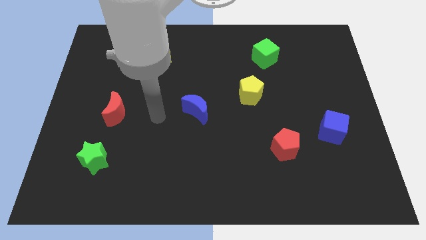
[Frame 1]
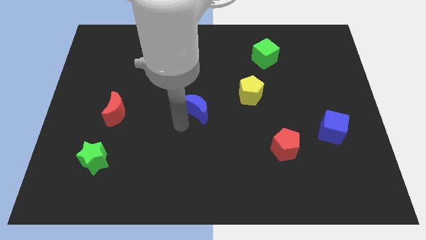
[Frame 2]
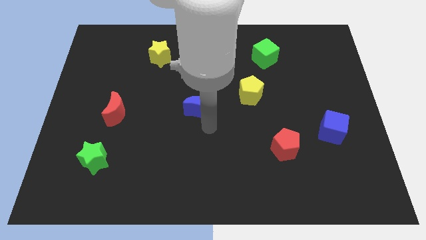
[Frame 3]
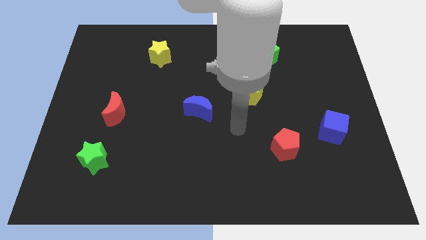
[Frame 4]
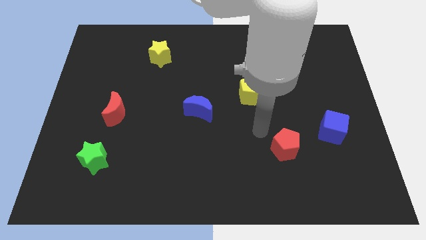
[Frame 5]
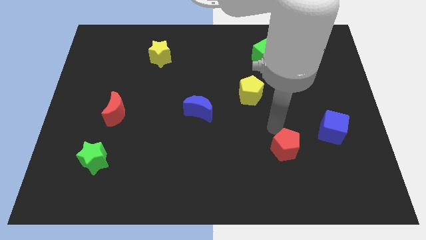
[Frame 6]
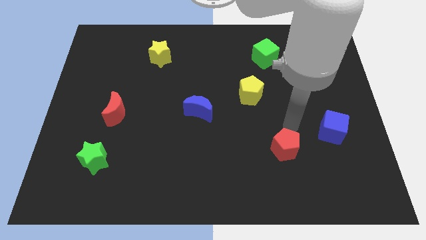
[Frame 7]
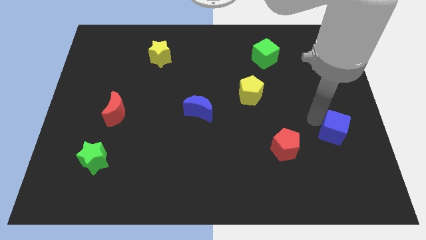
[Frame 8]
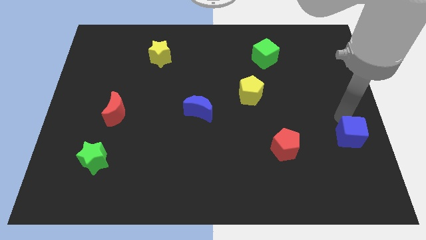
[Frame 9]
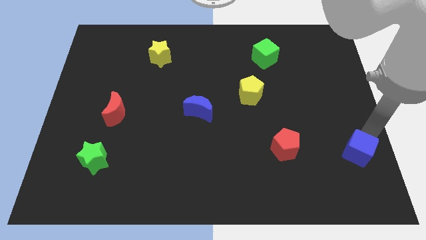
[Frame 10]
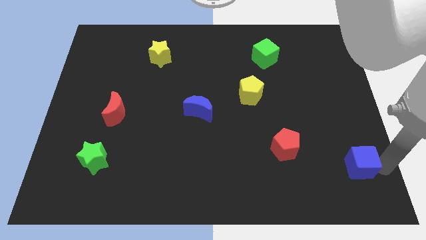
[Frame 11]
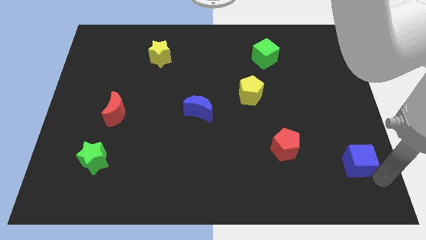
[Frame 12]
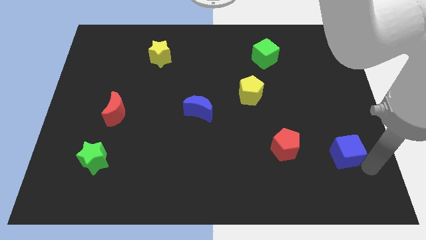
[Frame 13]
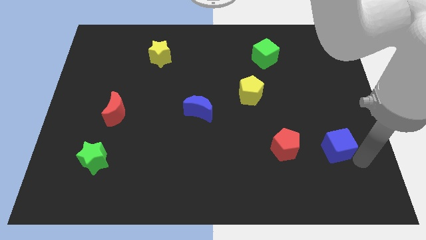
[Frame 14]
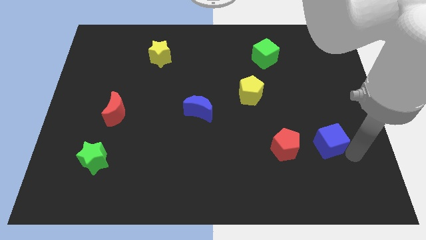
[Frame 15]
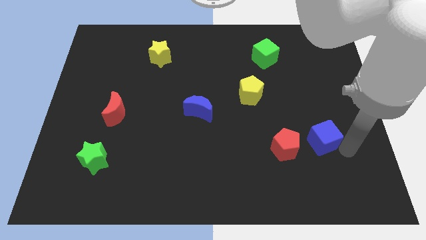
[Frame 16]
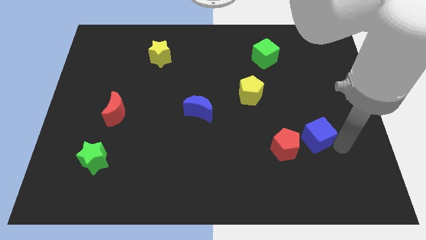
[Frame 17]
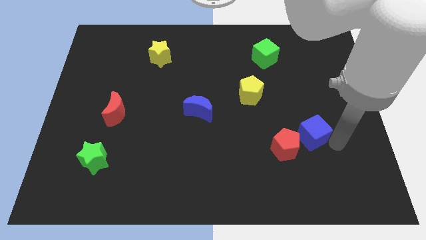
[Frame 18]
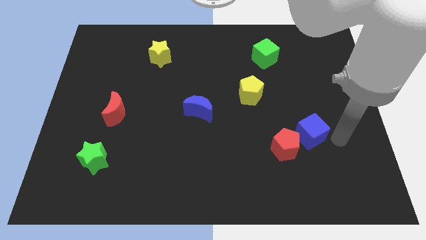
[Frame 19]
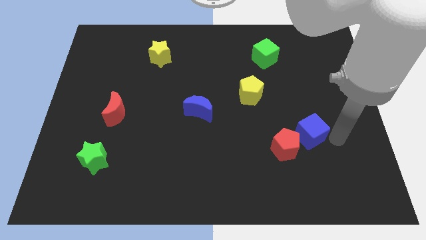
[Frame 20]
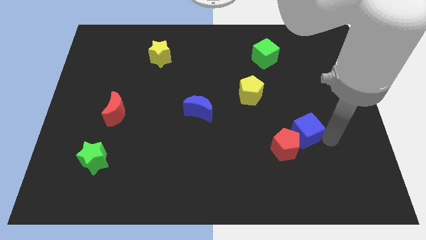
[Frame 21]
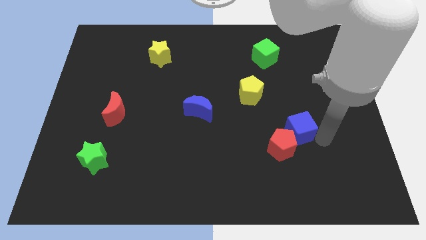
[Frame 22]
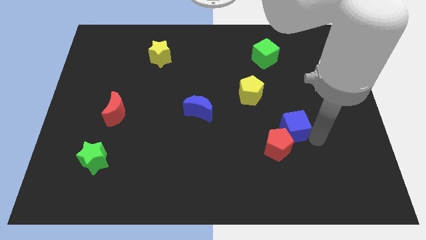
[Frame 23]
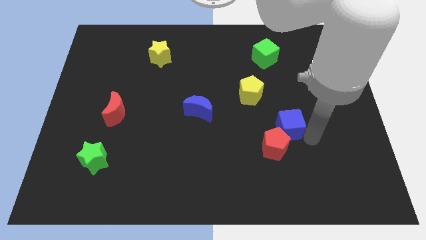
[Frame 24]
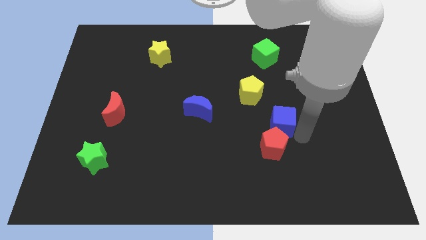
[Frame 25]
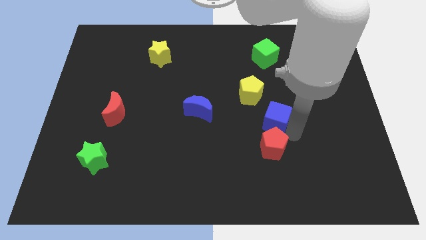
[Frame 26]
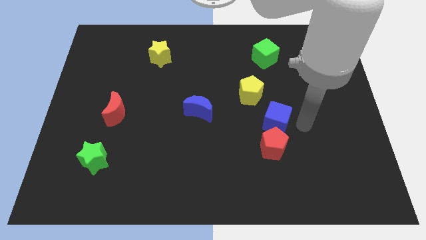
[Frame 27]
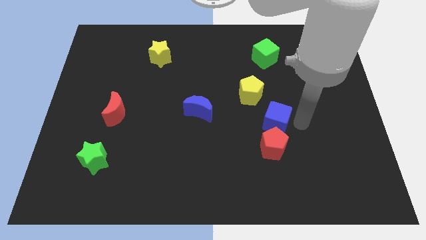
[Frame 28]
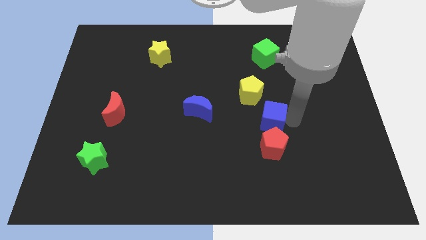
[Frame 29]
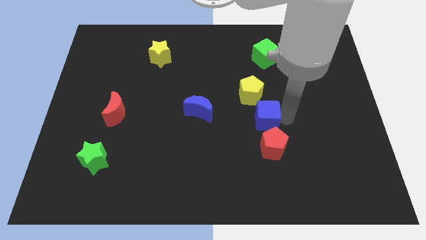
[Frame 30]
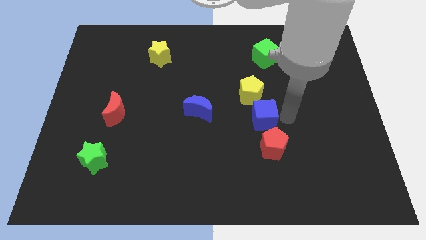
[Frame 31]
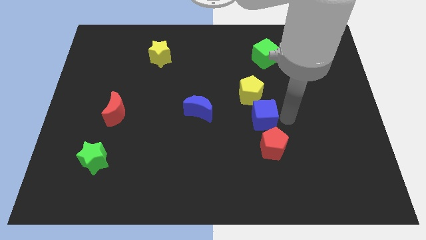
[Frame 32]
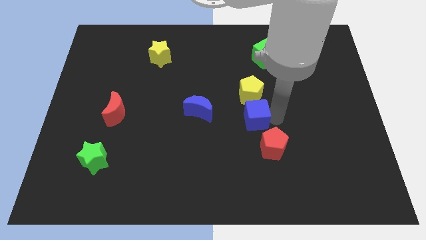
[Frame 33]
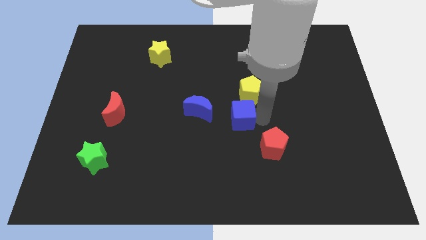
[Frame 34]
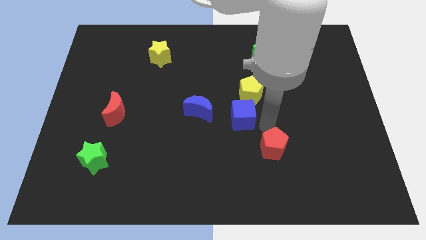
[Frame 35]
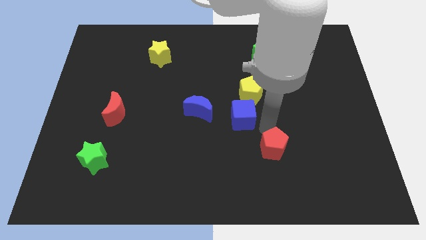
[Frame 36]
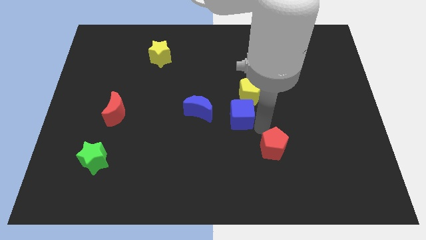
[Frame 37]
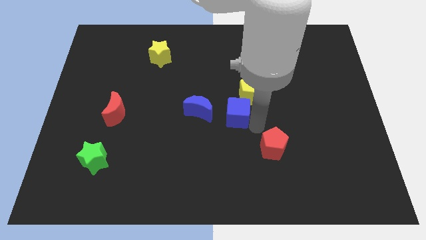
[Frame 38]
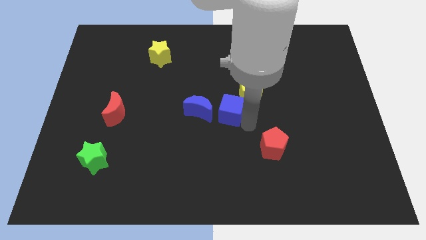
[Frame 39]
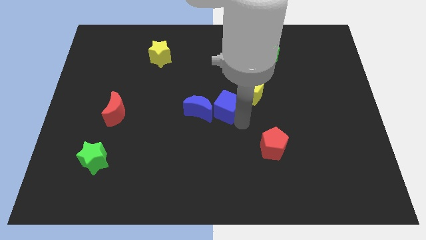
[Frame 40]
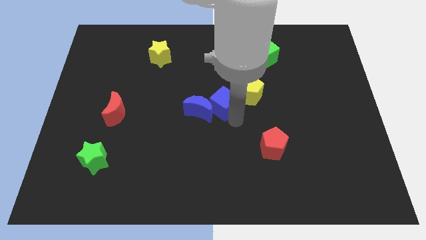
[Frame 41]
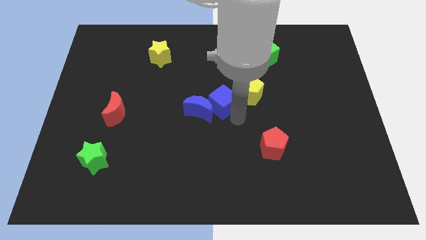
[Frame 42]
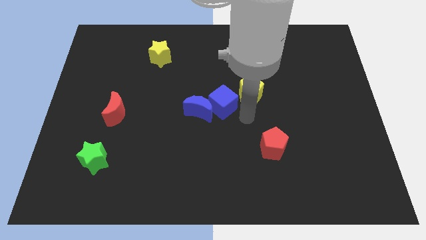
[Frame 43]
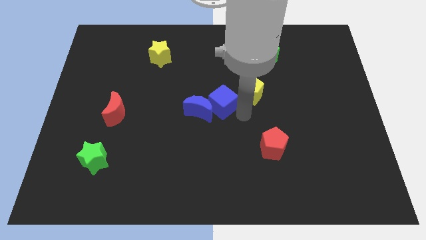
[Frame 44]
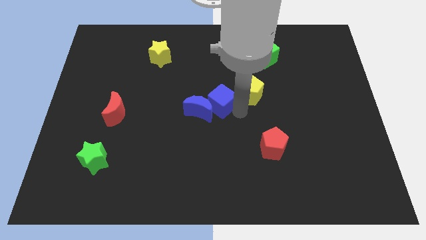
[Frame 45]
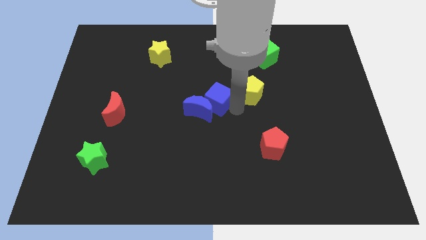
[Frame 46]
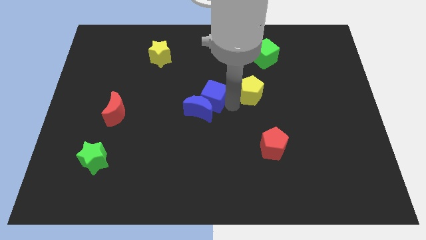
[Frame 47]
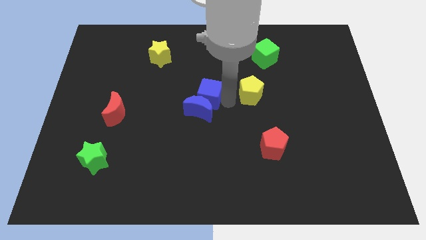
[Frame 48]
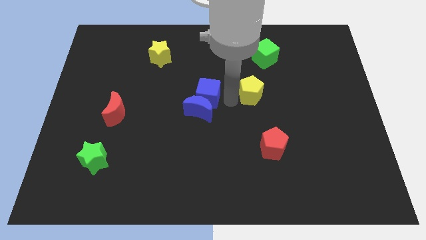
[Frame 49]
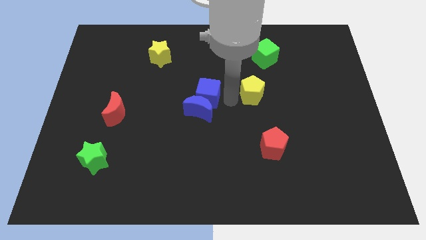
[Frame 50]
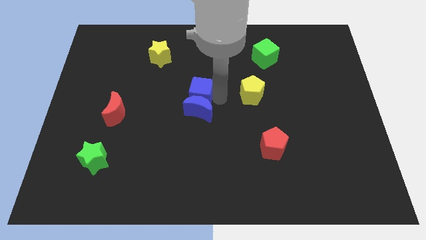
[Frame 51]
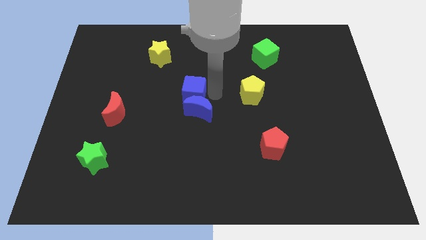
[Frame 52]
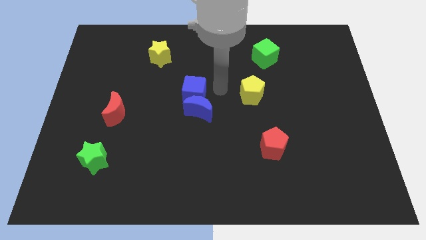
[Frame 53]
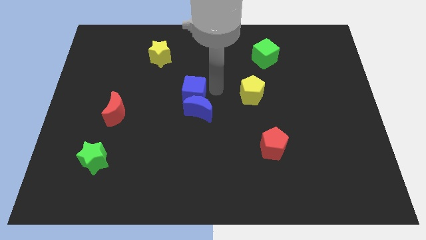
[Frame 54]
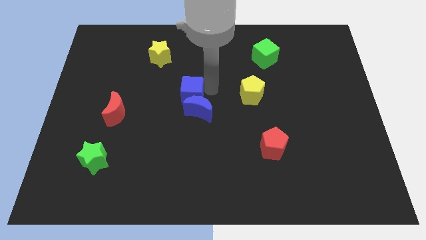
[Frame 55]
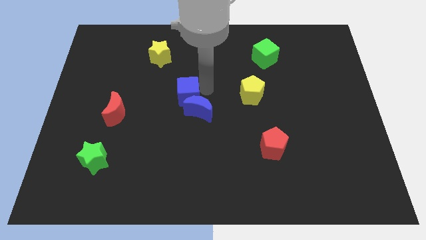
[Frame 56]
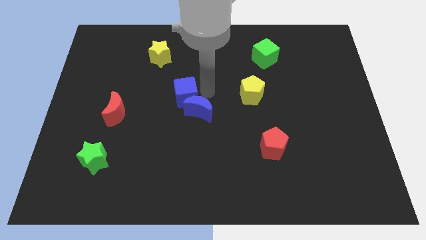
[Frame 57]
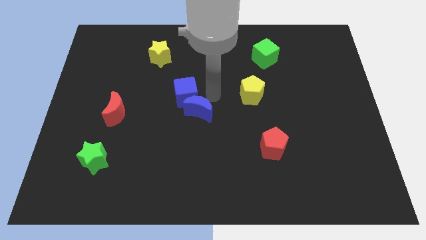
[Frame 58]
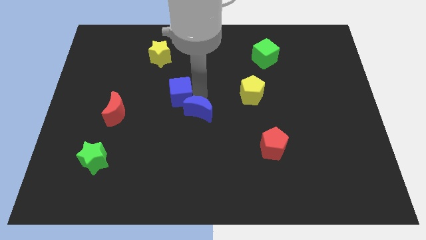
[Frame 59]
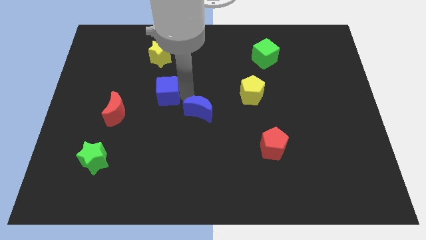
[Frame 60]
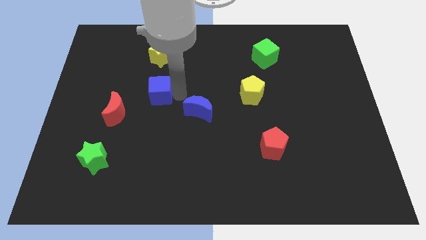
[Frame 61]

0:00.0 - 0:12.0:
push the blue cube to the top right side of the red moon

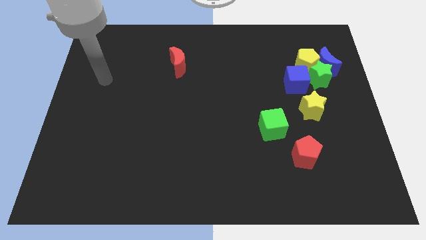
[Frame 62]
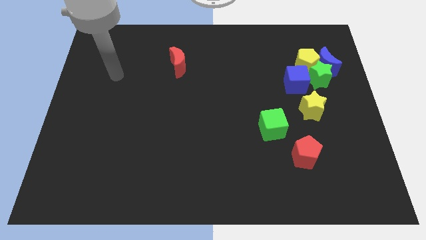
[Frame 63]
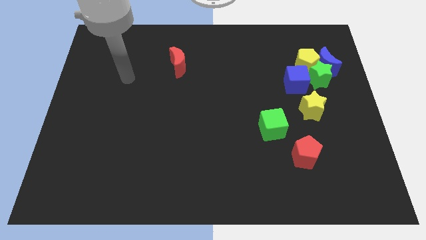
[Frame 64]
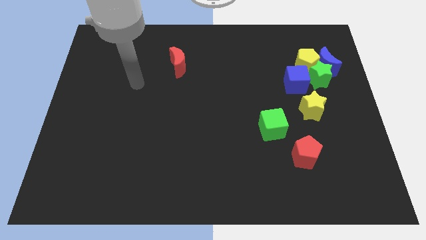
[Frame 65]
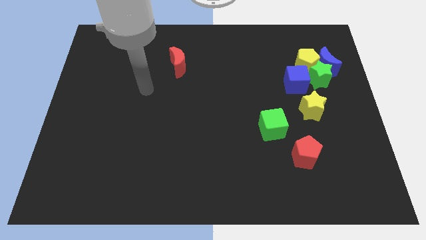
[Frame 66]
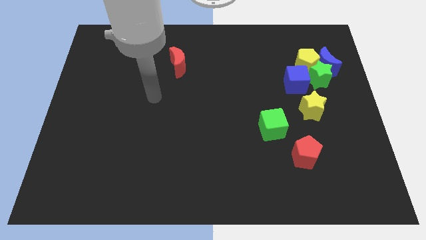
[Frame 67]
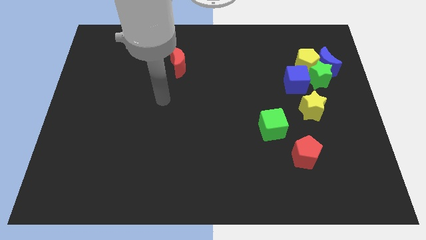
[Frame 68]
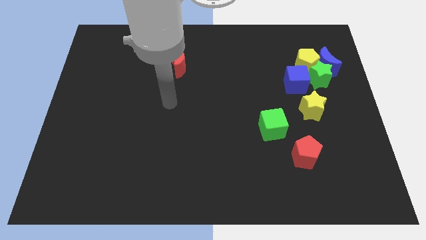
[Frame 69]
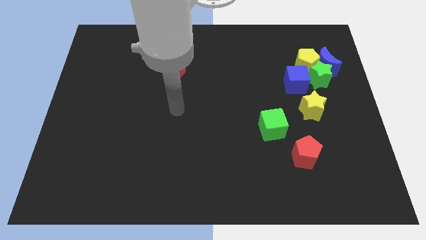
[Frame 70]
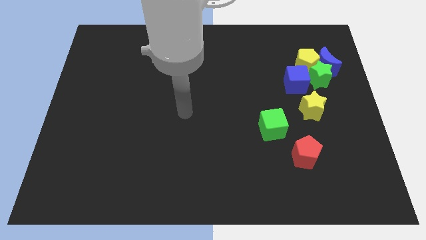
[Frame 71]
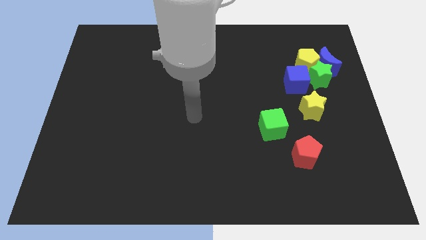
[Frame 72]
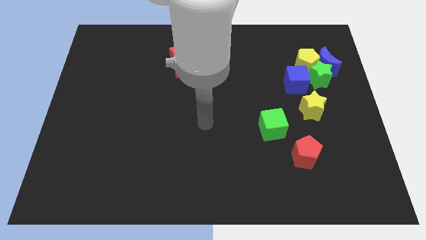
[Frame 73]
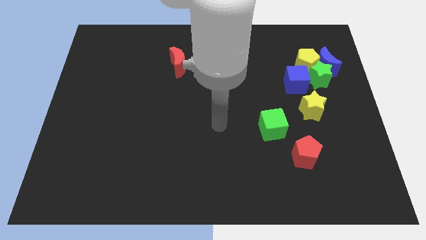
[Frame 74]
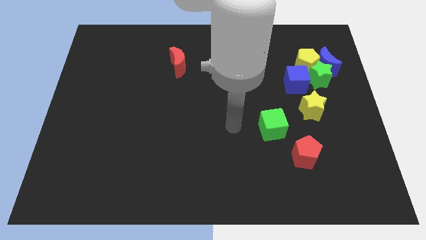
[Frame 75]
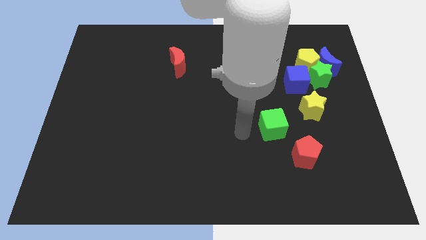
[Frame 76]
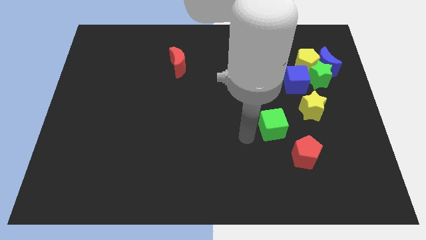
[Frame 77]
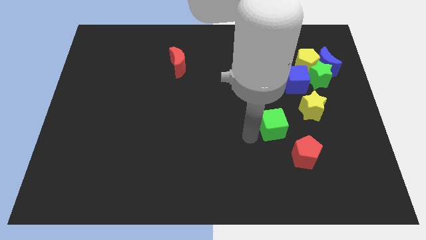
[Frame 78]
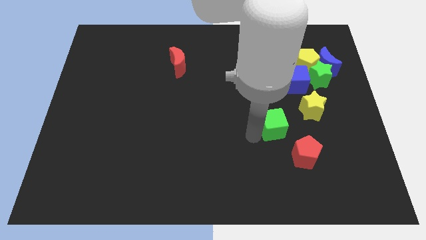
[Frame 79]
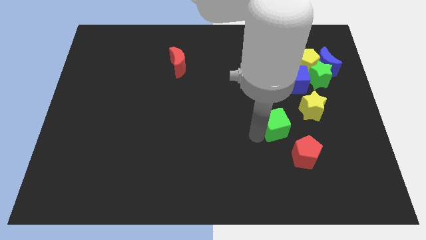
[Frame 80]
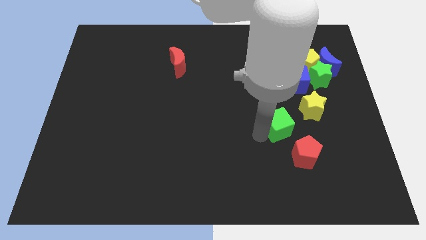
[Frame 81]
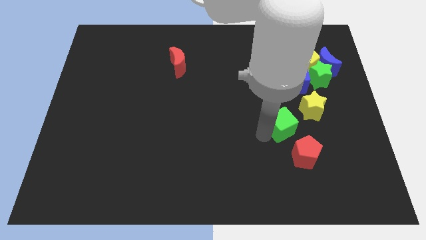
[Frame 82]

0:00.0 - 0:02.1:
move the green cube above the red pentagon
